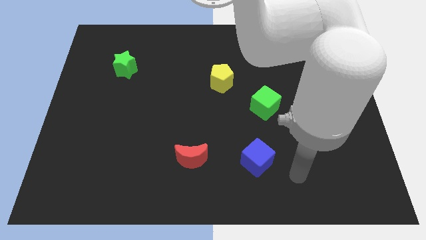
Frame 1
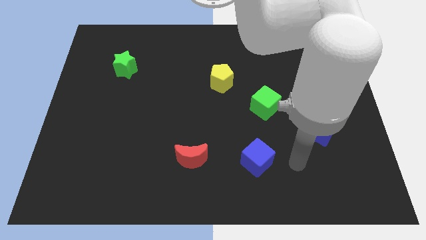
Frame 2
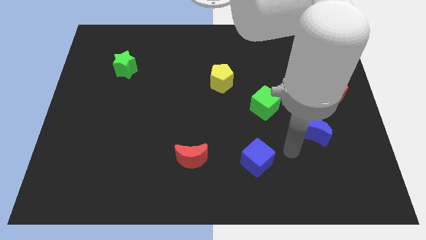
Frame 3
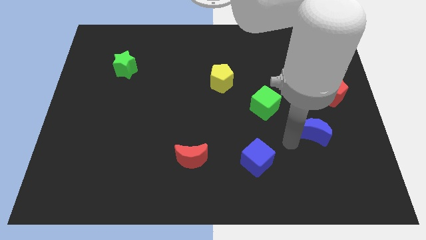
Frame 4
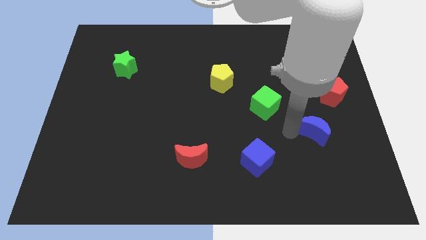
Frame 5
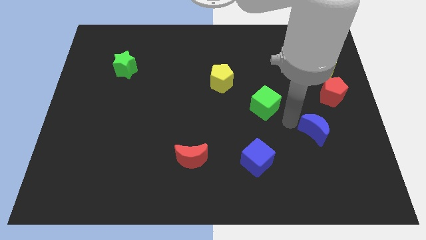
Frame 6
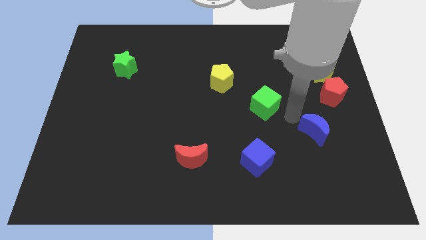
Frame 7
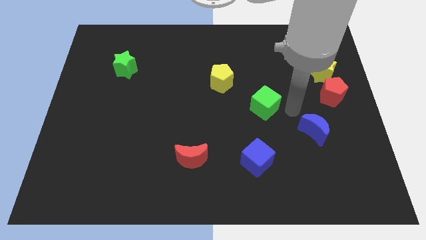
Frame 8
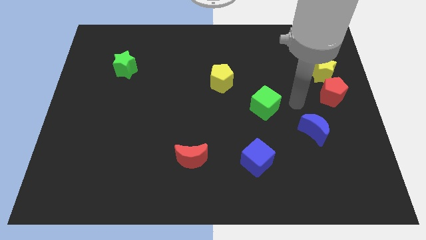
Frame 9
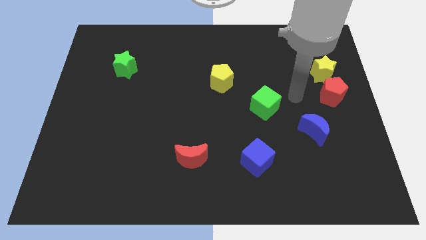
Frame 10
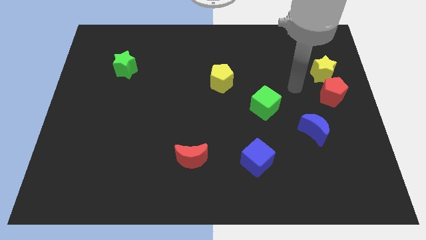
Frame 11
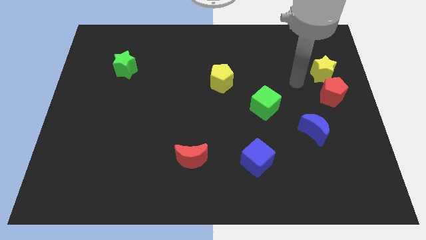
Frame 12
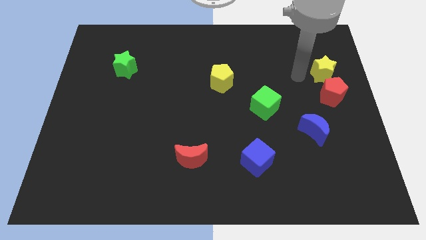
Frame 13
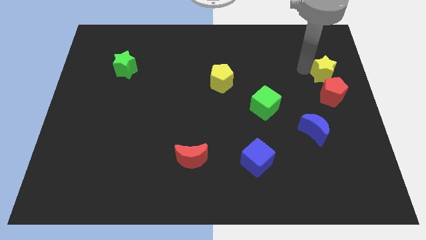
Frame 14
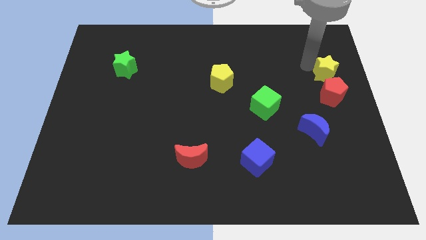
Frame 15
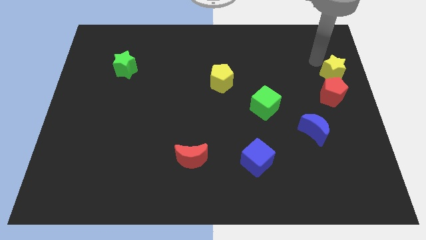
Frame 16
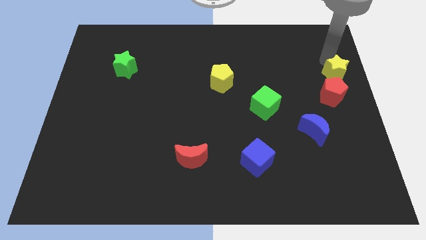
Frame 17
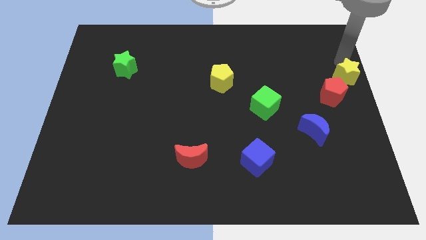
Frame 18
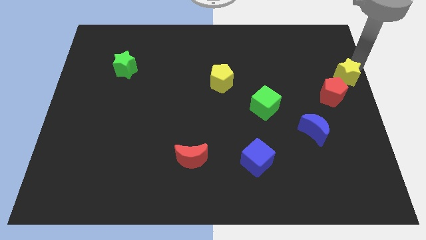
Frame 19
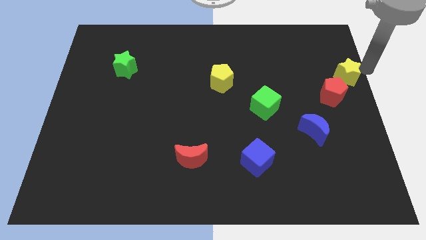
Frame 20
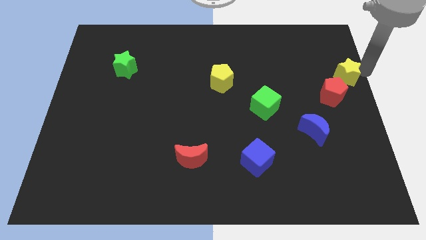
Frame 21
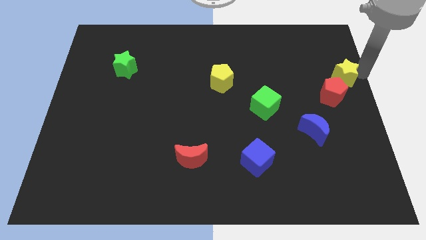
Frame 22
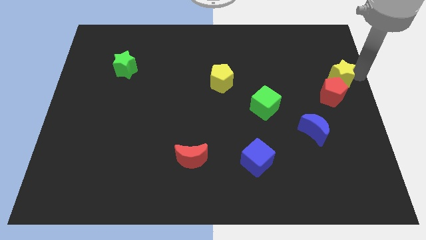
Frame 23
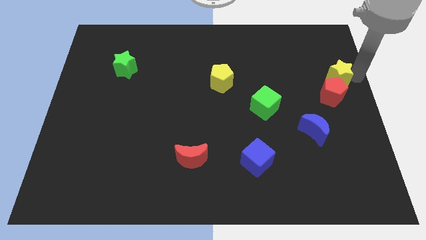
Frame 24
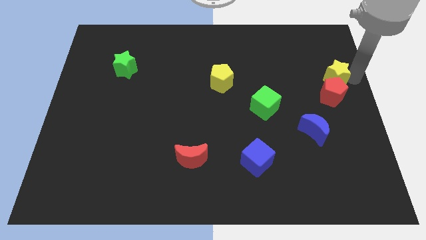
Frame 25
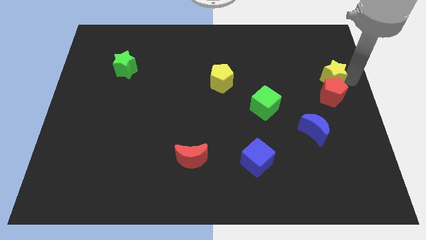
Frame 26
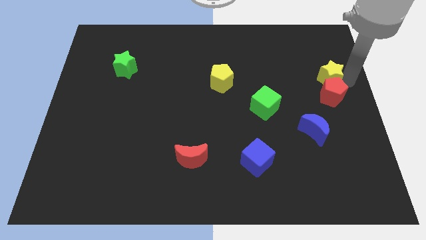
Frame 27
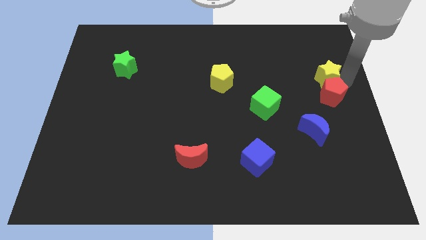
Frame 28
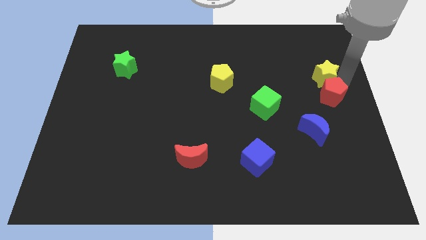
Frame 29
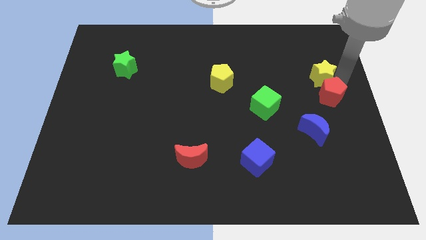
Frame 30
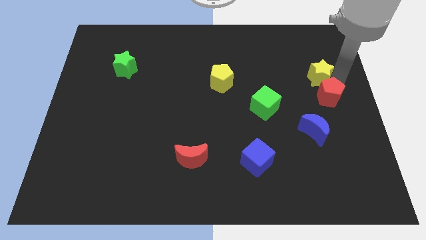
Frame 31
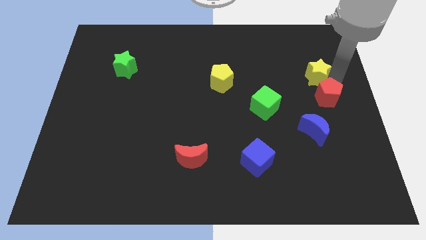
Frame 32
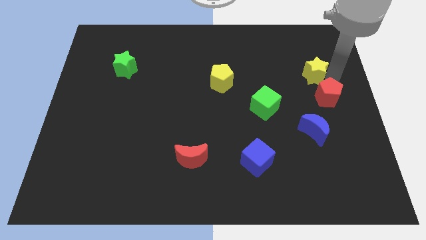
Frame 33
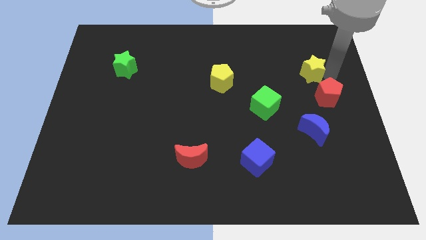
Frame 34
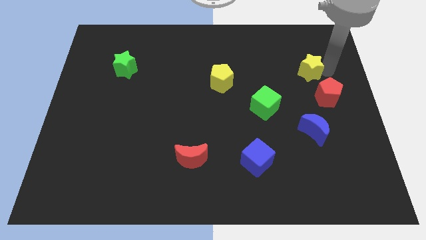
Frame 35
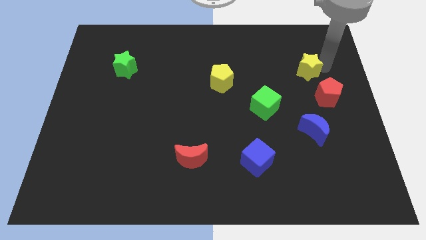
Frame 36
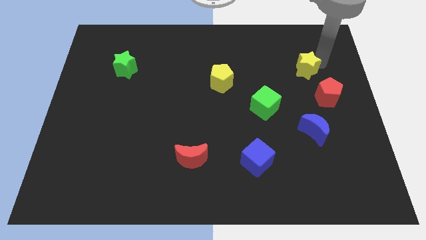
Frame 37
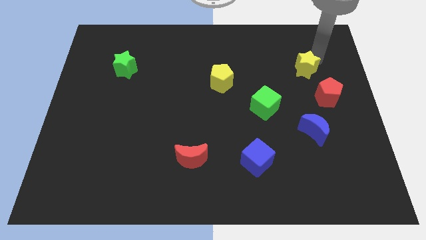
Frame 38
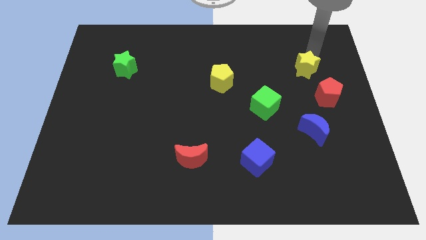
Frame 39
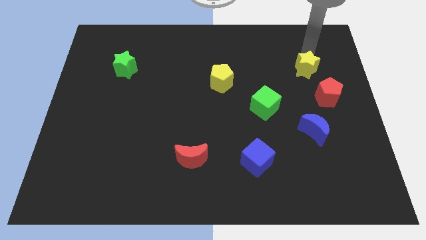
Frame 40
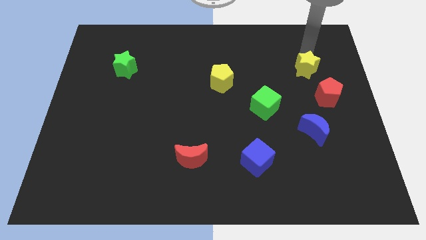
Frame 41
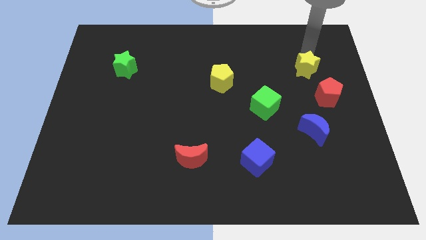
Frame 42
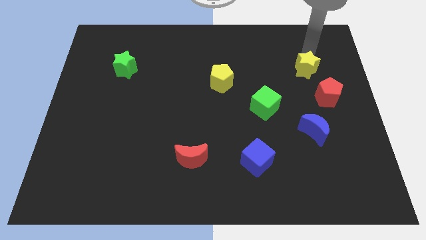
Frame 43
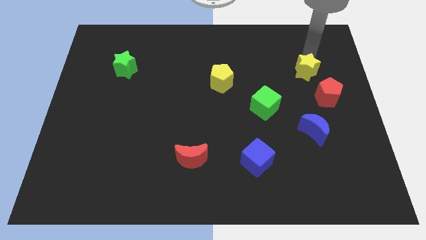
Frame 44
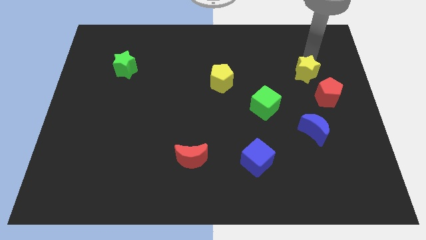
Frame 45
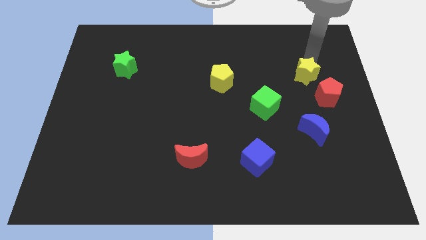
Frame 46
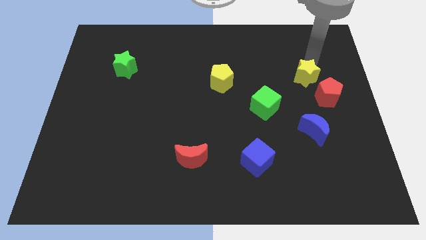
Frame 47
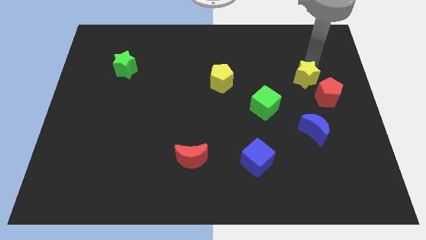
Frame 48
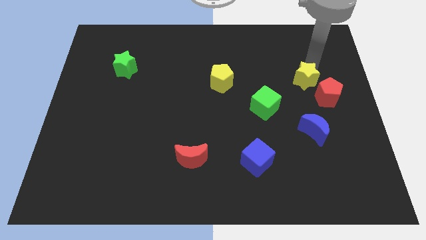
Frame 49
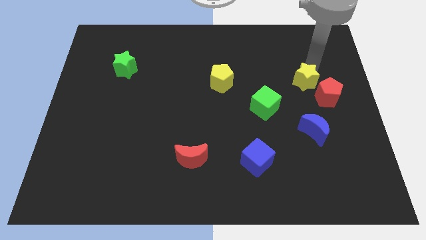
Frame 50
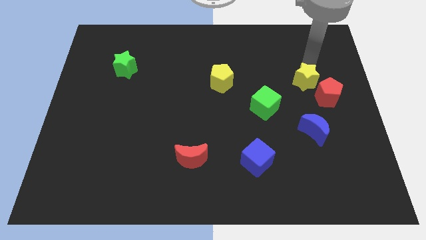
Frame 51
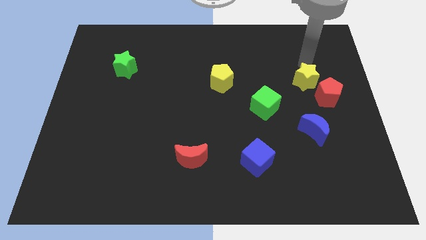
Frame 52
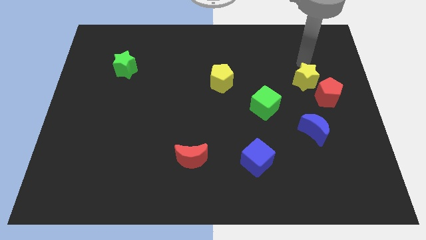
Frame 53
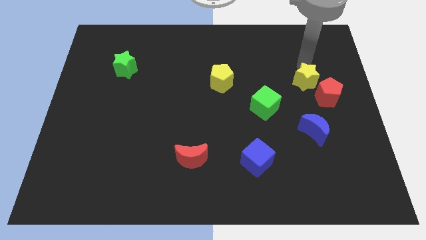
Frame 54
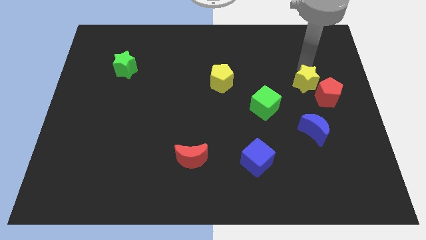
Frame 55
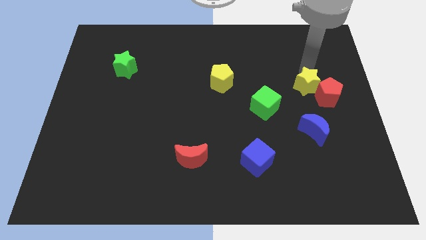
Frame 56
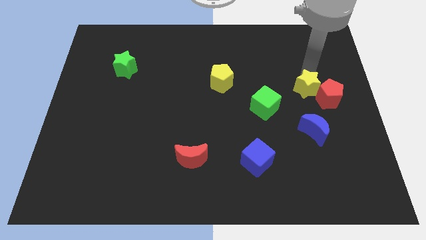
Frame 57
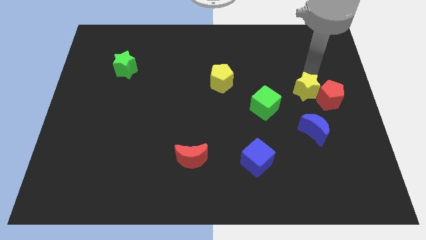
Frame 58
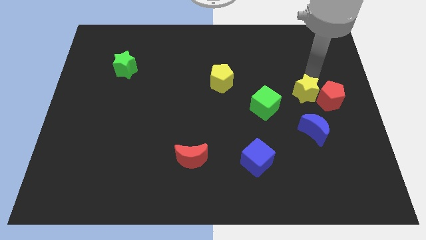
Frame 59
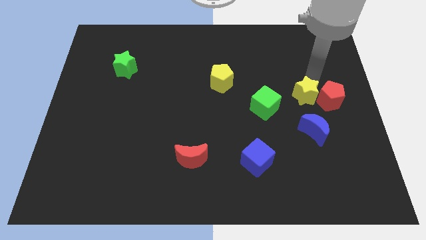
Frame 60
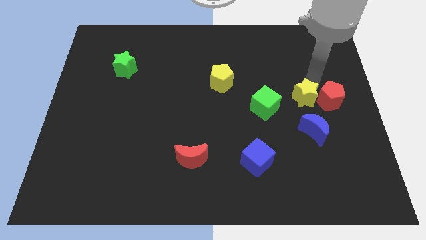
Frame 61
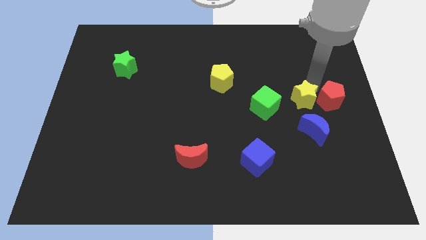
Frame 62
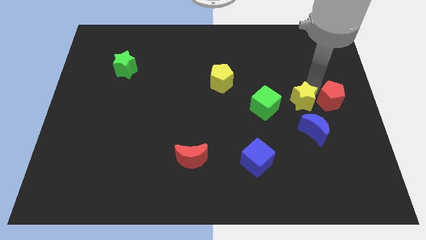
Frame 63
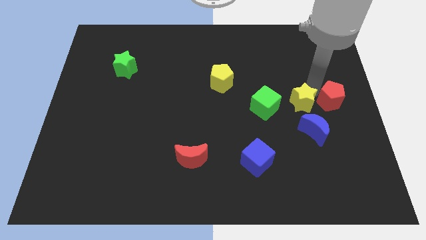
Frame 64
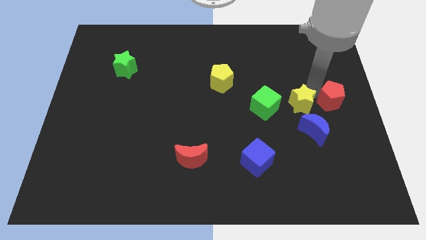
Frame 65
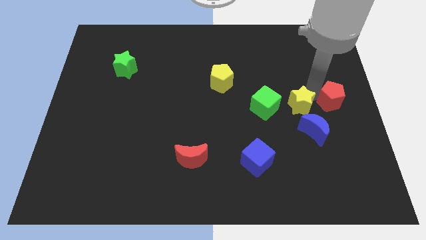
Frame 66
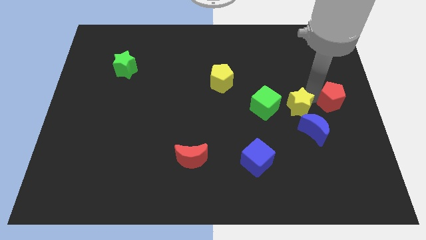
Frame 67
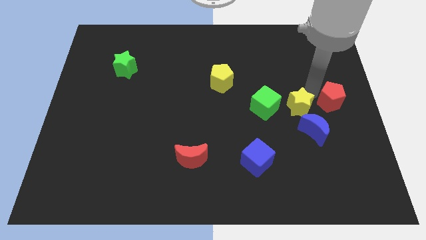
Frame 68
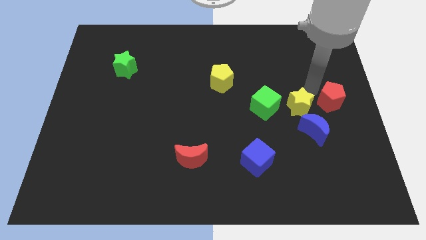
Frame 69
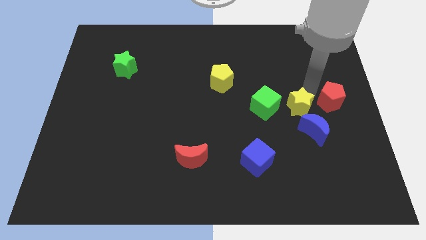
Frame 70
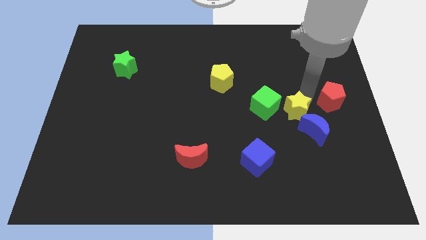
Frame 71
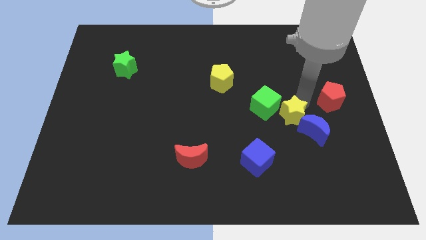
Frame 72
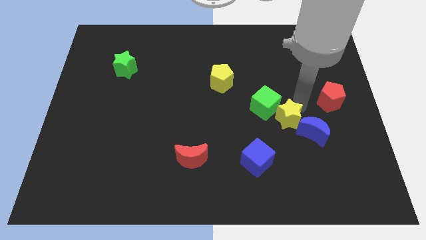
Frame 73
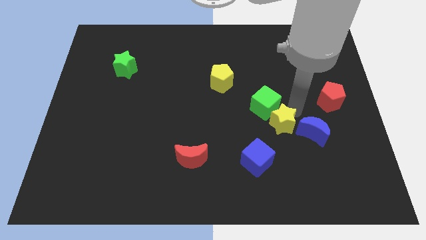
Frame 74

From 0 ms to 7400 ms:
move the yellow star diagonally up and to the right of the blue cube
